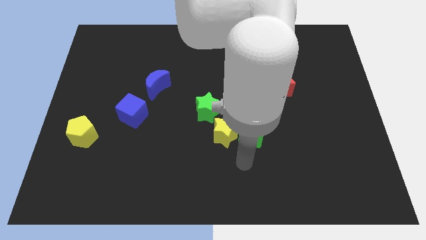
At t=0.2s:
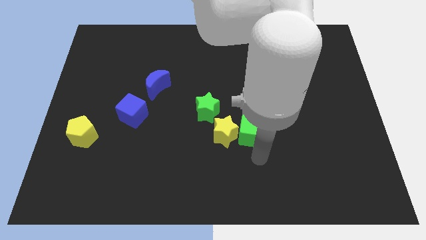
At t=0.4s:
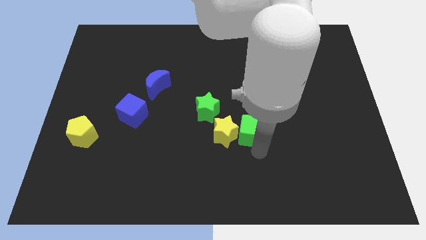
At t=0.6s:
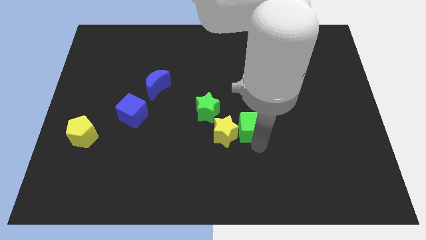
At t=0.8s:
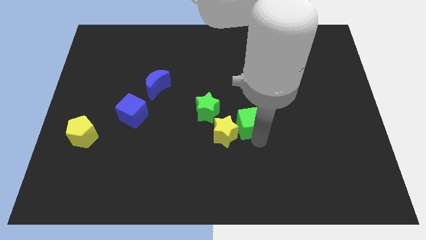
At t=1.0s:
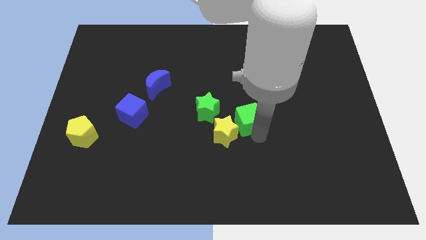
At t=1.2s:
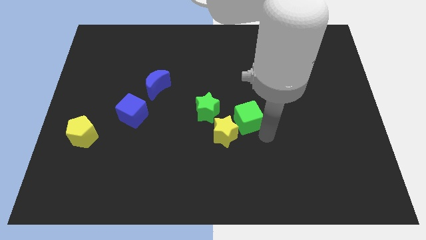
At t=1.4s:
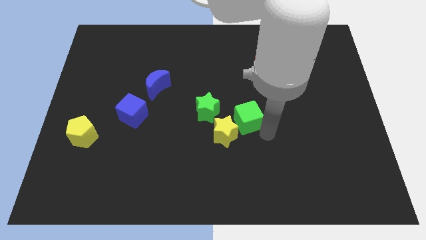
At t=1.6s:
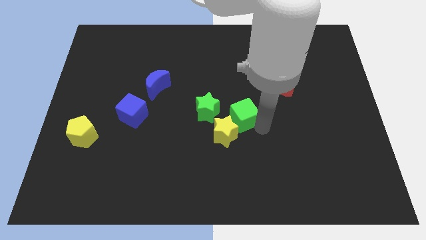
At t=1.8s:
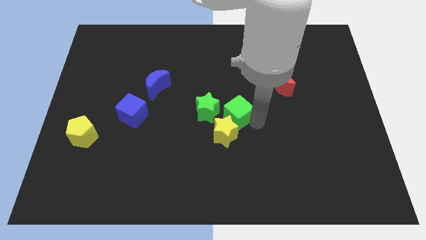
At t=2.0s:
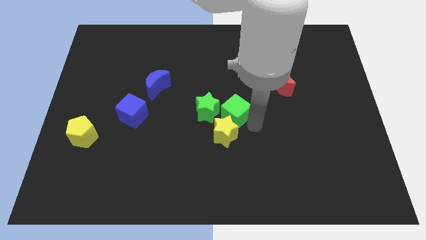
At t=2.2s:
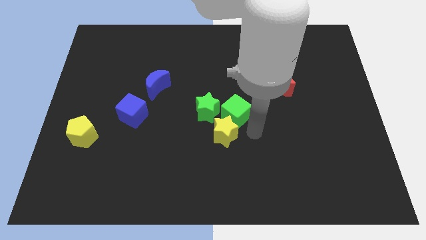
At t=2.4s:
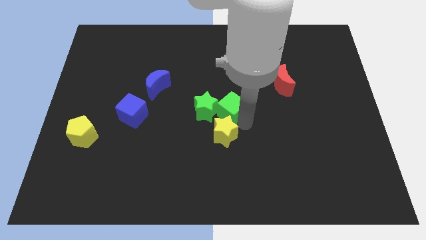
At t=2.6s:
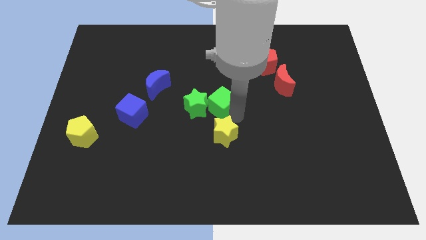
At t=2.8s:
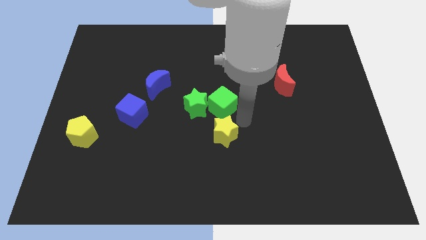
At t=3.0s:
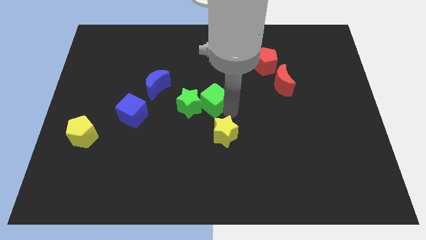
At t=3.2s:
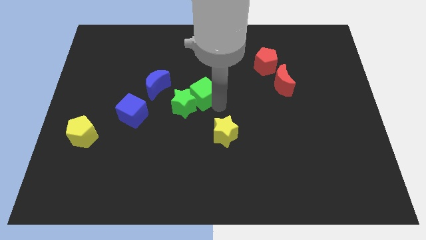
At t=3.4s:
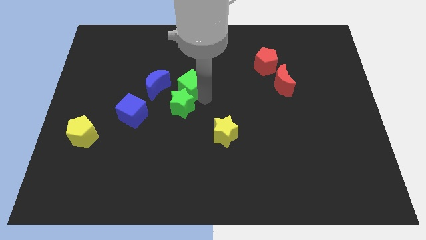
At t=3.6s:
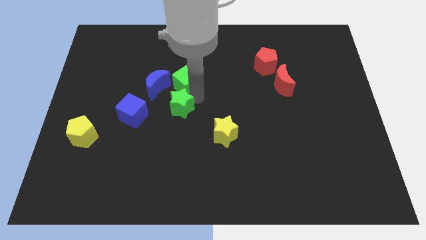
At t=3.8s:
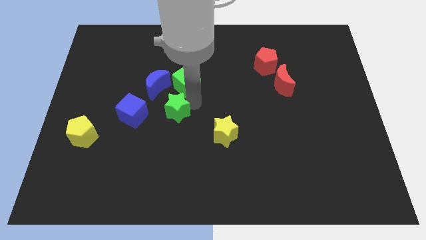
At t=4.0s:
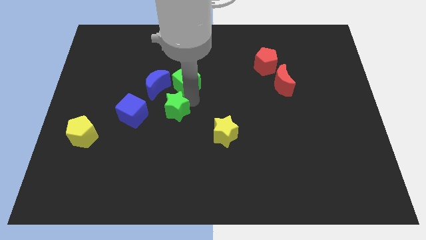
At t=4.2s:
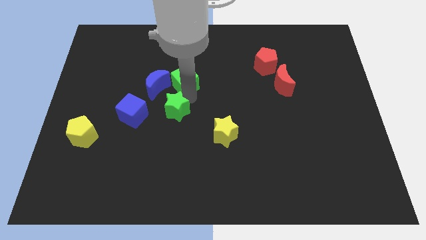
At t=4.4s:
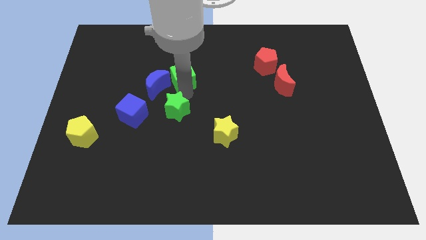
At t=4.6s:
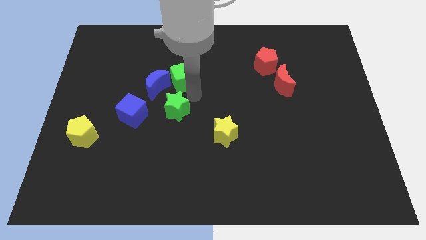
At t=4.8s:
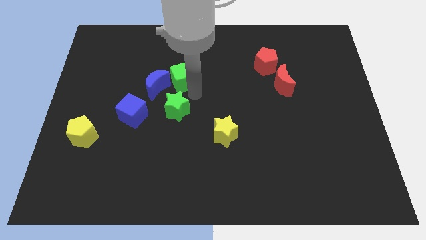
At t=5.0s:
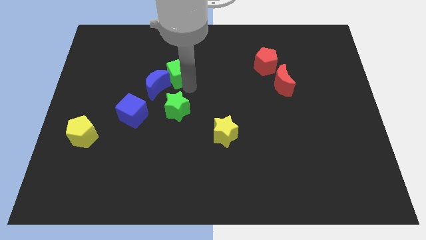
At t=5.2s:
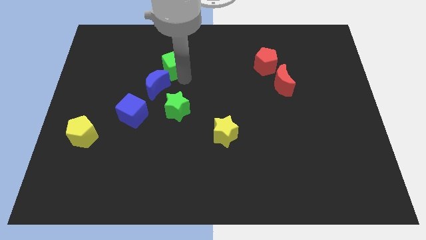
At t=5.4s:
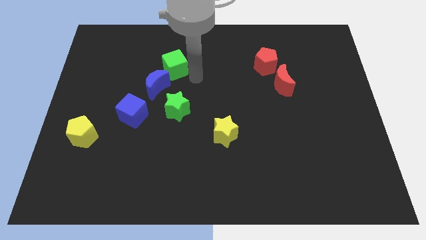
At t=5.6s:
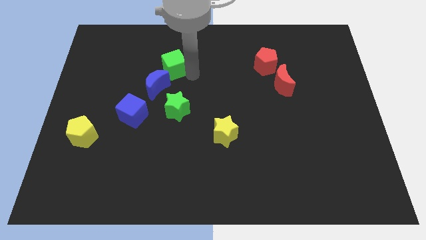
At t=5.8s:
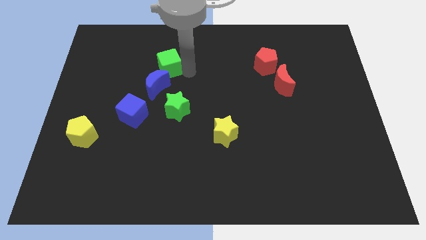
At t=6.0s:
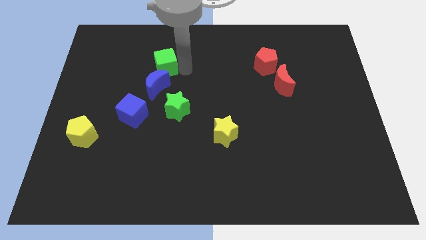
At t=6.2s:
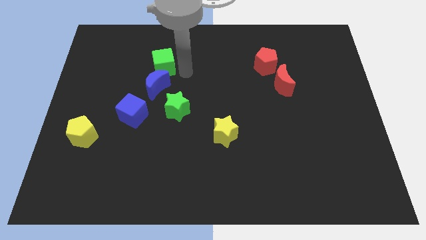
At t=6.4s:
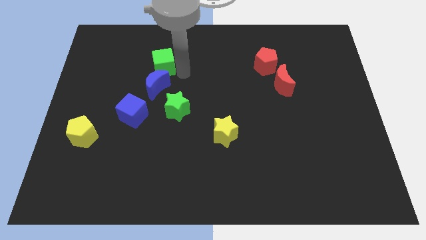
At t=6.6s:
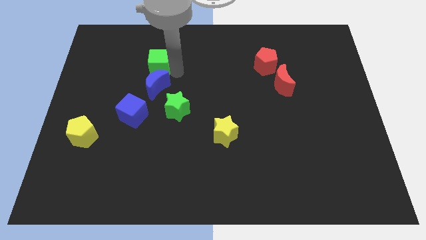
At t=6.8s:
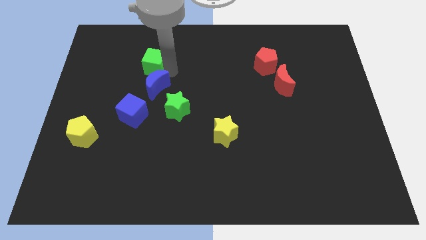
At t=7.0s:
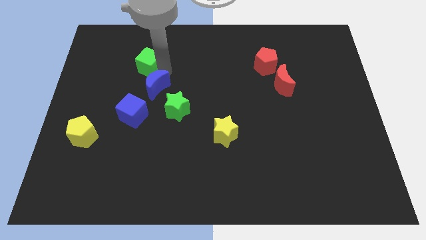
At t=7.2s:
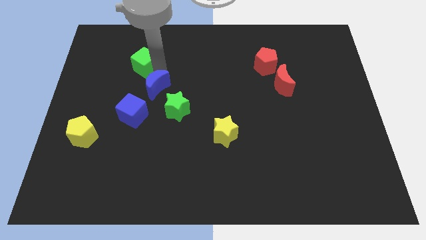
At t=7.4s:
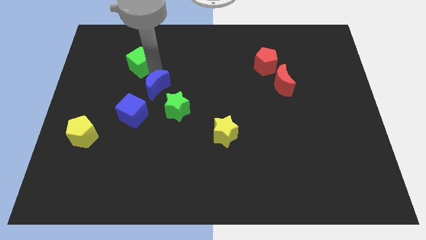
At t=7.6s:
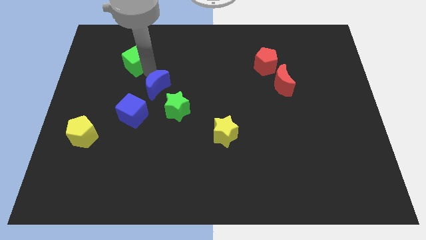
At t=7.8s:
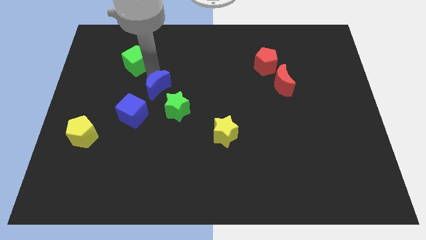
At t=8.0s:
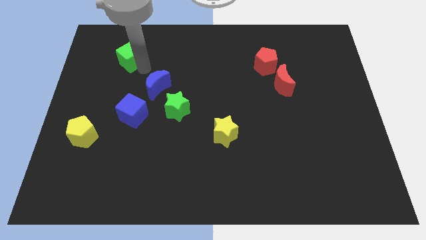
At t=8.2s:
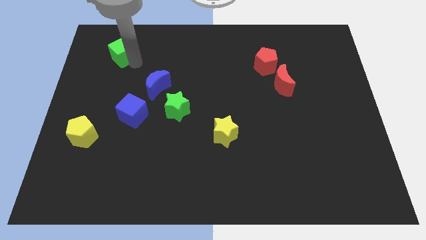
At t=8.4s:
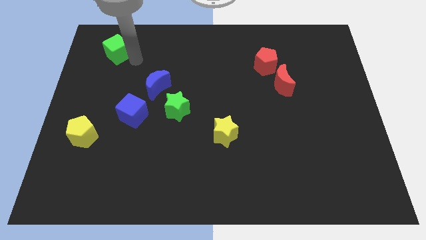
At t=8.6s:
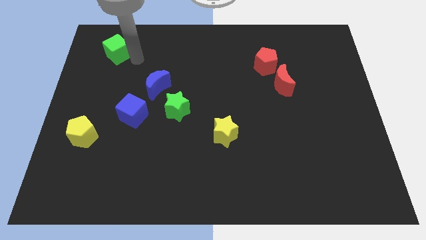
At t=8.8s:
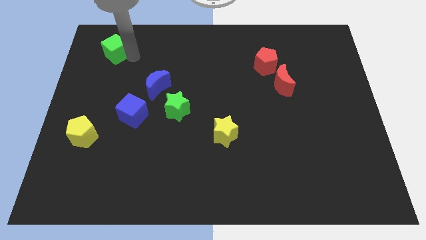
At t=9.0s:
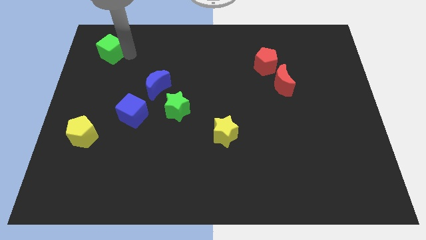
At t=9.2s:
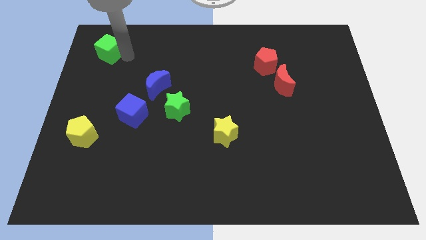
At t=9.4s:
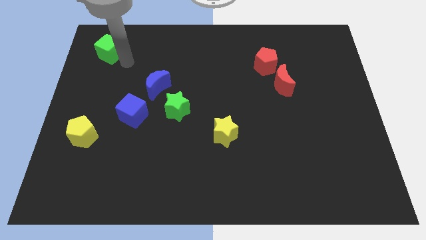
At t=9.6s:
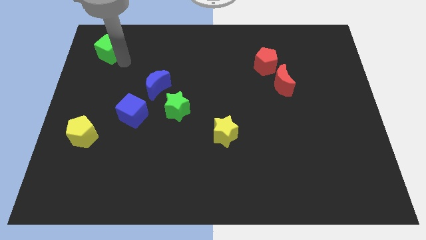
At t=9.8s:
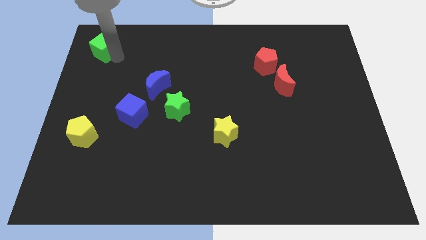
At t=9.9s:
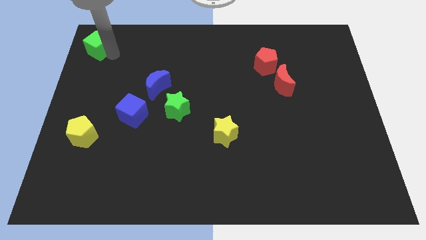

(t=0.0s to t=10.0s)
move the green cube to the top left corner

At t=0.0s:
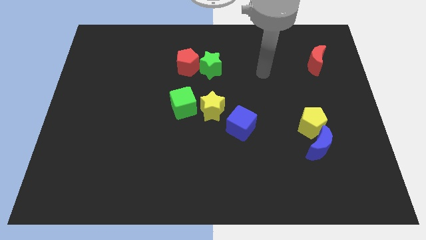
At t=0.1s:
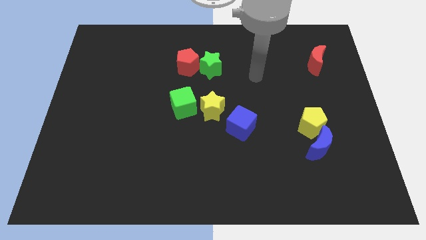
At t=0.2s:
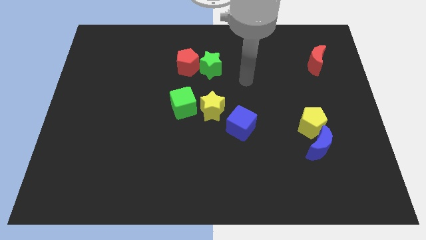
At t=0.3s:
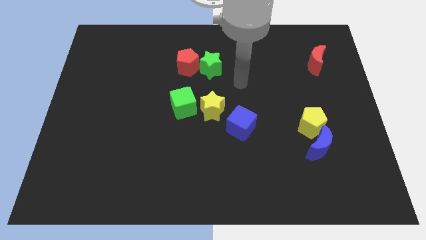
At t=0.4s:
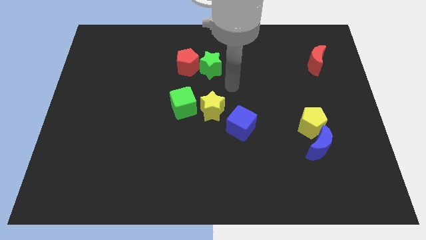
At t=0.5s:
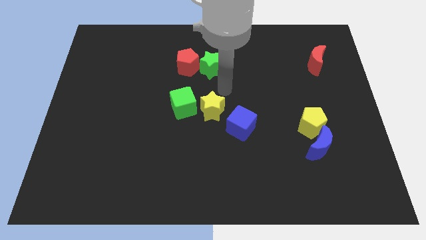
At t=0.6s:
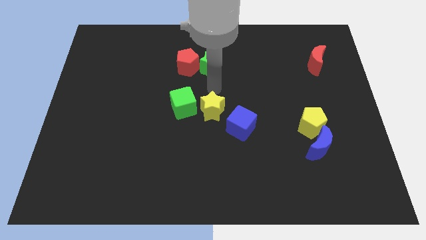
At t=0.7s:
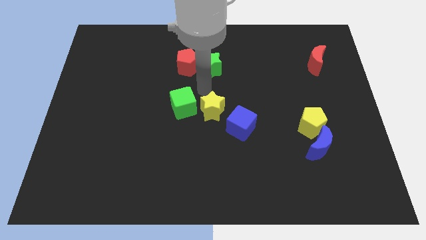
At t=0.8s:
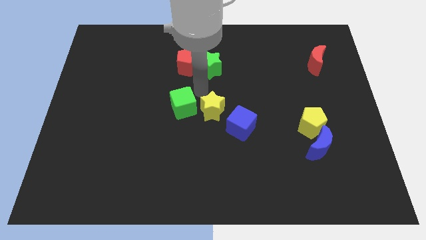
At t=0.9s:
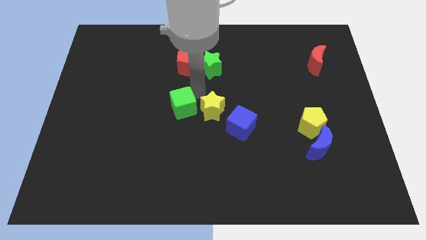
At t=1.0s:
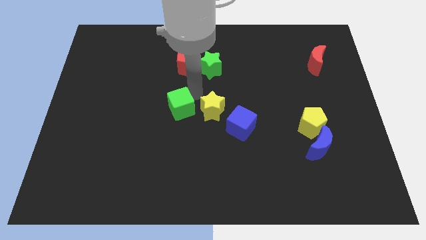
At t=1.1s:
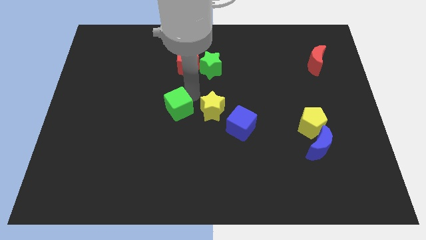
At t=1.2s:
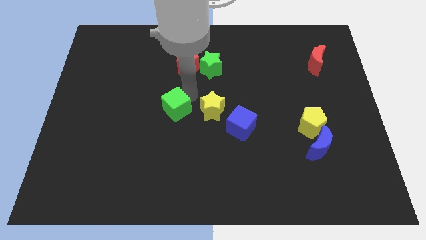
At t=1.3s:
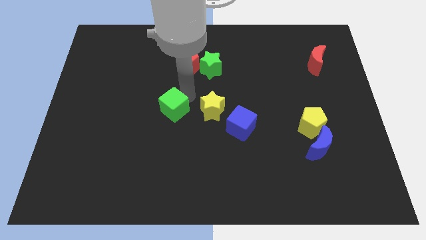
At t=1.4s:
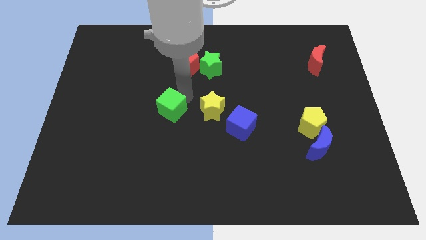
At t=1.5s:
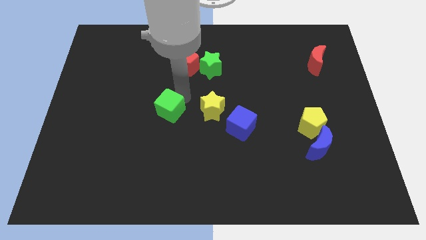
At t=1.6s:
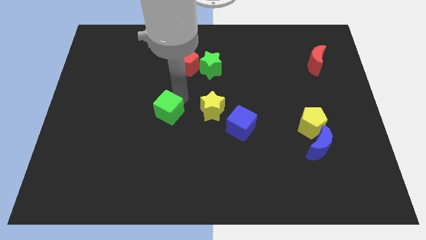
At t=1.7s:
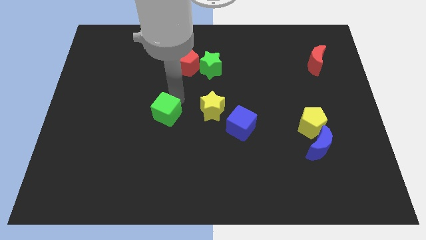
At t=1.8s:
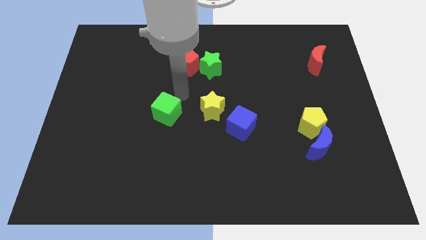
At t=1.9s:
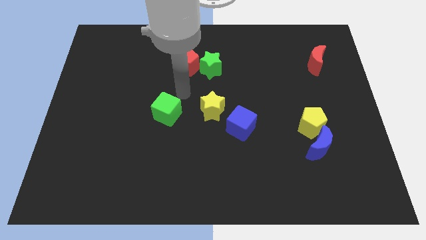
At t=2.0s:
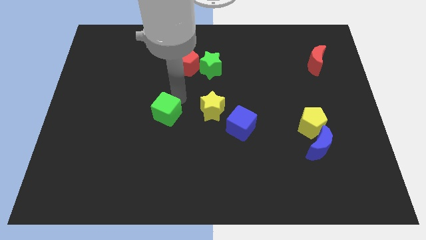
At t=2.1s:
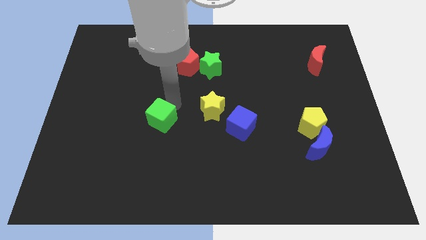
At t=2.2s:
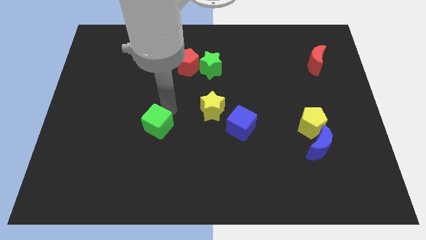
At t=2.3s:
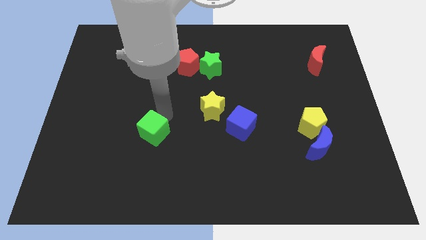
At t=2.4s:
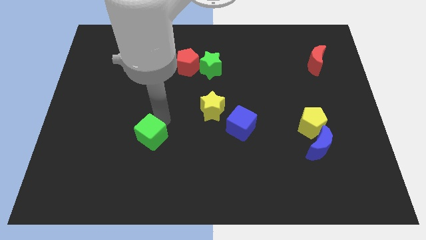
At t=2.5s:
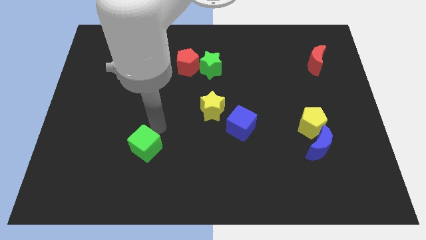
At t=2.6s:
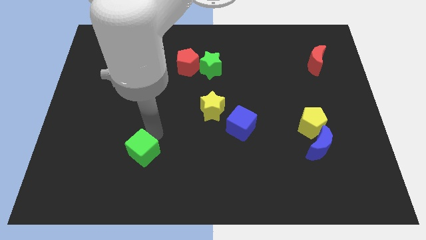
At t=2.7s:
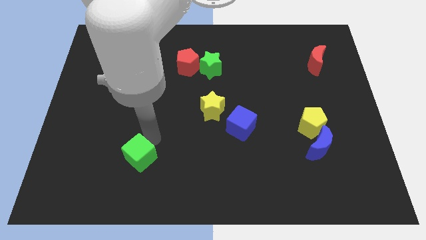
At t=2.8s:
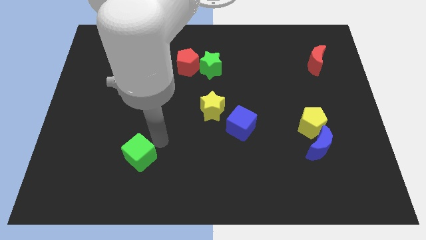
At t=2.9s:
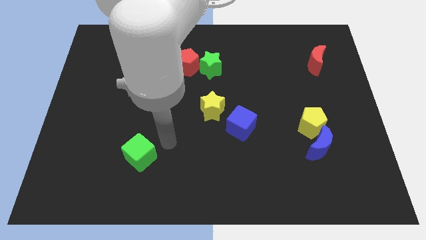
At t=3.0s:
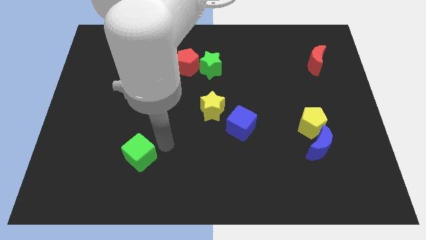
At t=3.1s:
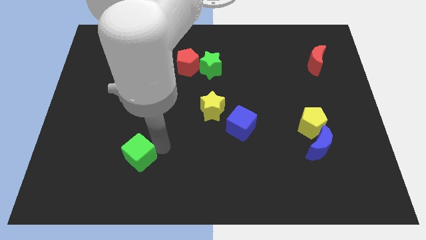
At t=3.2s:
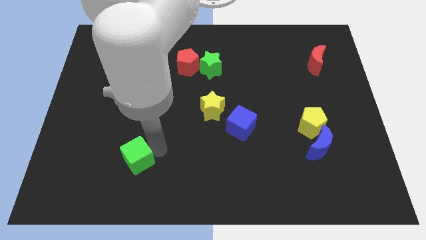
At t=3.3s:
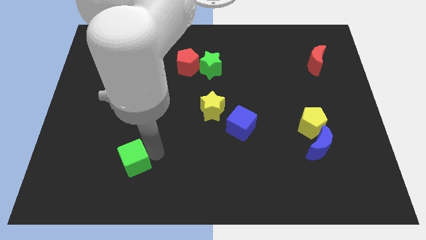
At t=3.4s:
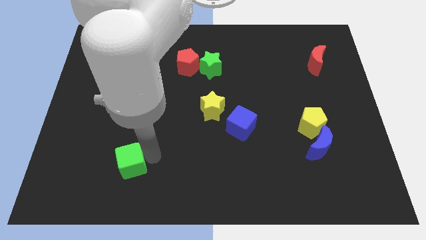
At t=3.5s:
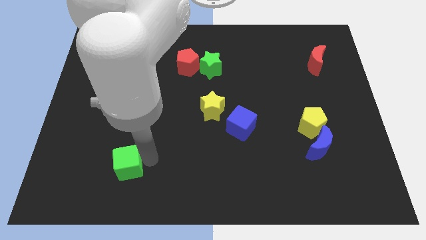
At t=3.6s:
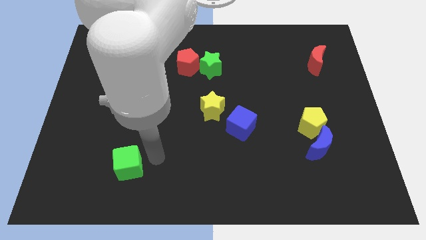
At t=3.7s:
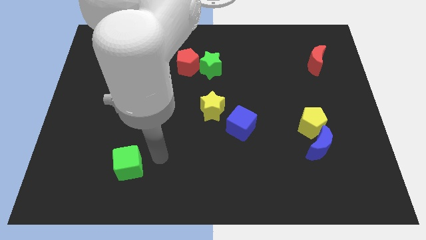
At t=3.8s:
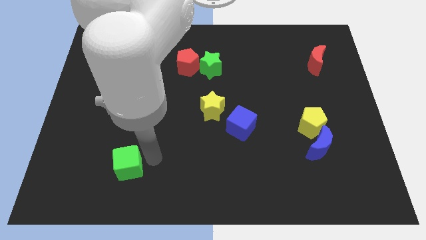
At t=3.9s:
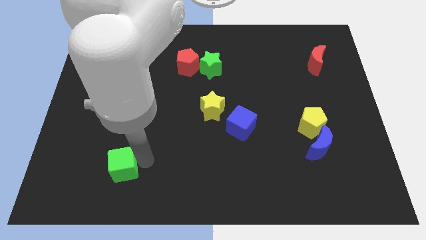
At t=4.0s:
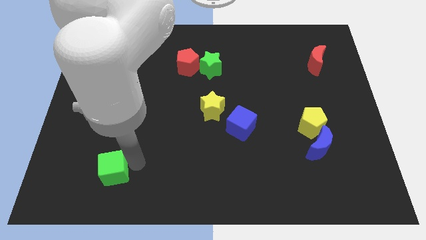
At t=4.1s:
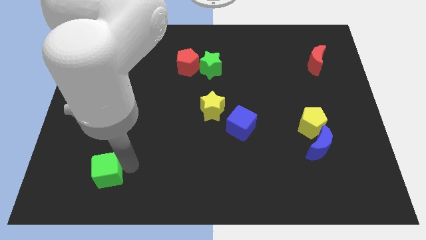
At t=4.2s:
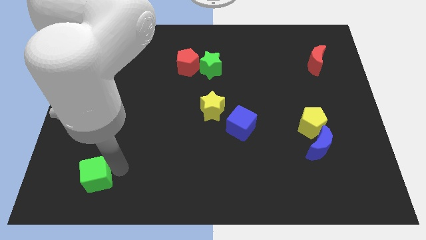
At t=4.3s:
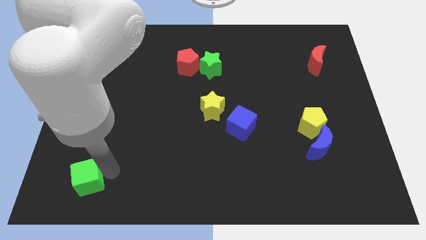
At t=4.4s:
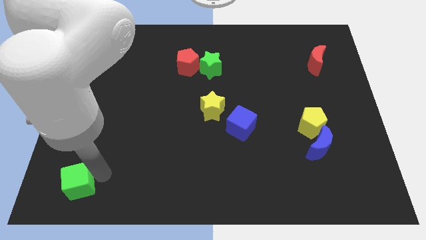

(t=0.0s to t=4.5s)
move the green cube to the bottom left of the board
